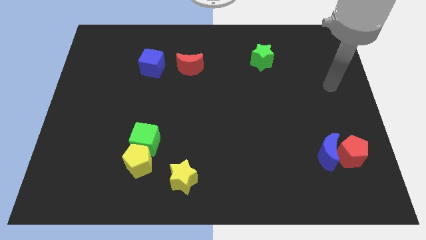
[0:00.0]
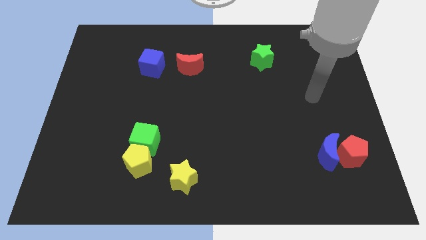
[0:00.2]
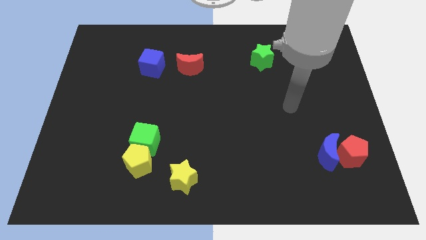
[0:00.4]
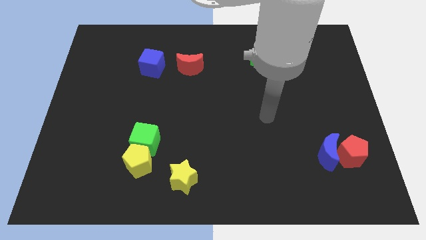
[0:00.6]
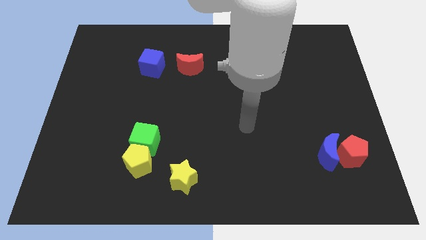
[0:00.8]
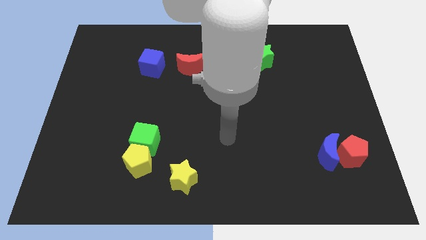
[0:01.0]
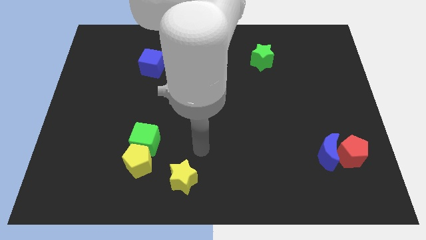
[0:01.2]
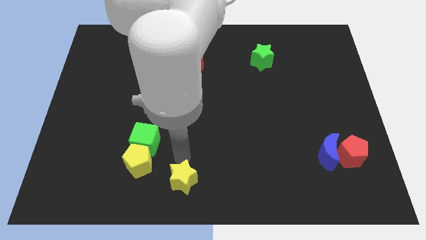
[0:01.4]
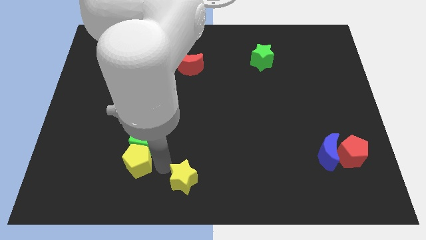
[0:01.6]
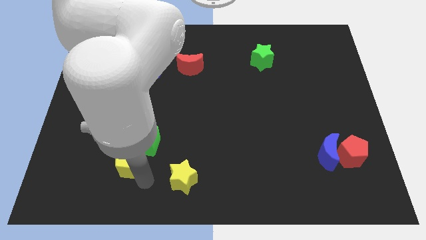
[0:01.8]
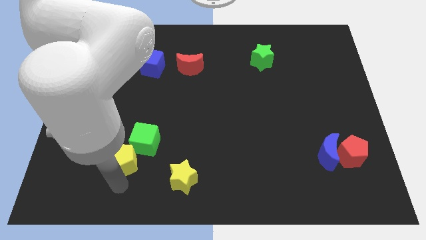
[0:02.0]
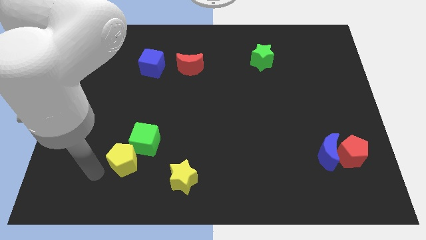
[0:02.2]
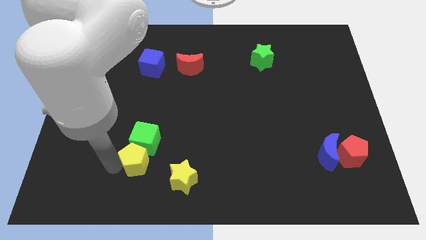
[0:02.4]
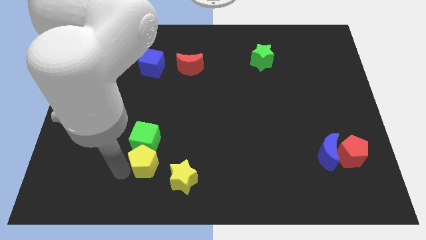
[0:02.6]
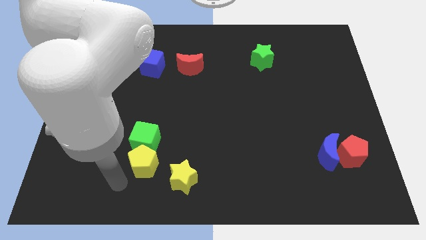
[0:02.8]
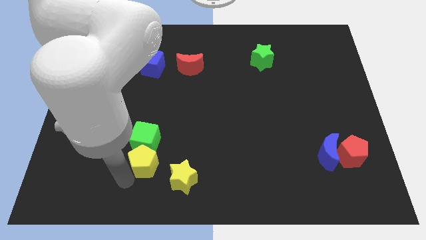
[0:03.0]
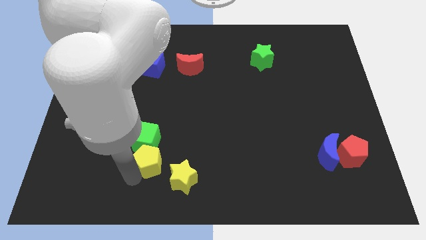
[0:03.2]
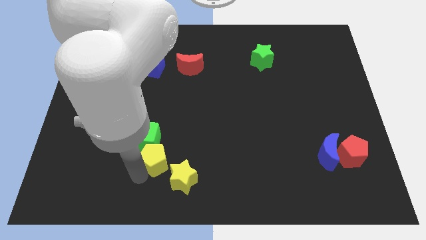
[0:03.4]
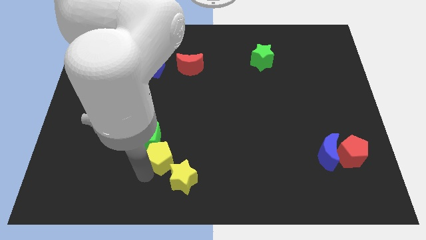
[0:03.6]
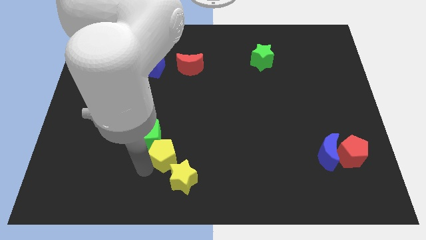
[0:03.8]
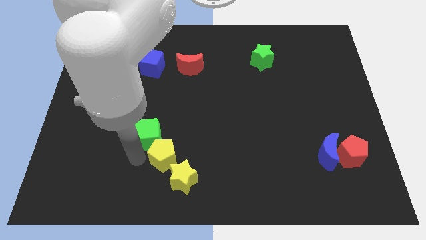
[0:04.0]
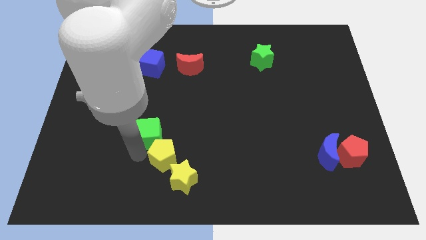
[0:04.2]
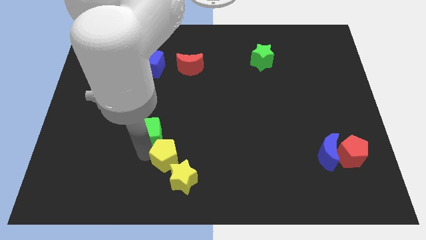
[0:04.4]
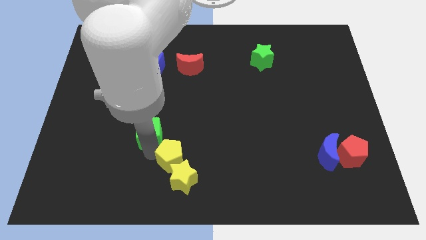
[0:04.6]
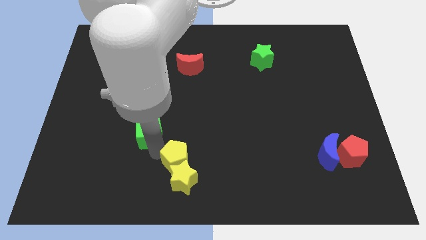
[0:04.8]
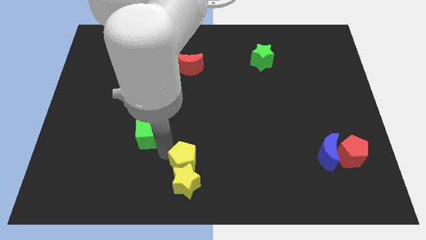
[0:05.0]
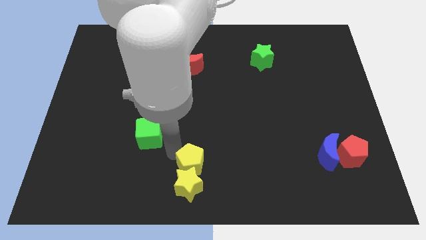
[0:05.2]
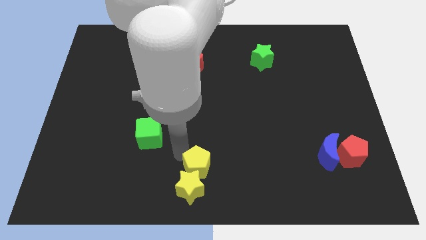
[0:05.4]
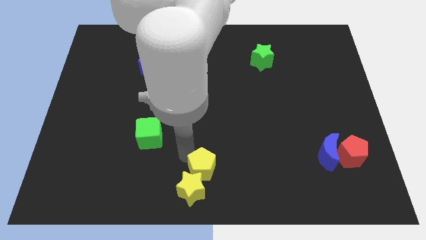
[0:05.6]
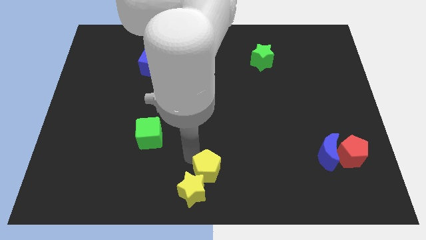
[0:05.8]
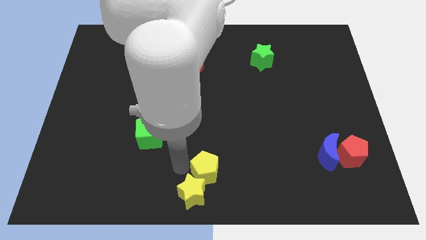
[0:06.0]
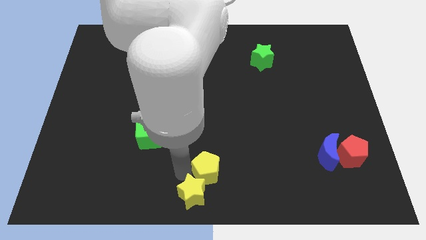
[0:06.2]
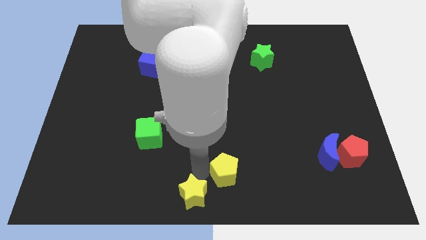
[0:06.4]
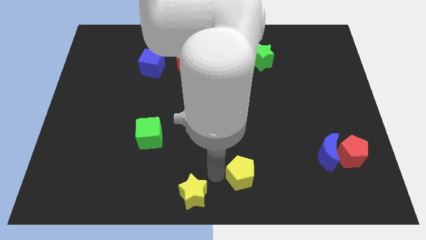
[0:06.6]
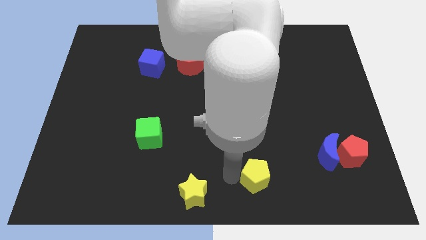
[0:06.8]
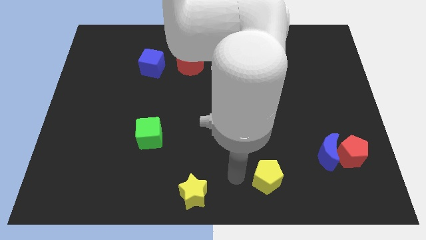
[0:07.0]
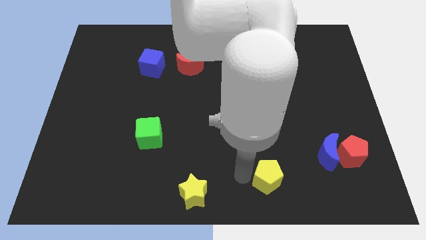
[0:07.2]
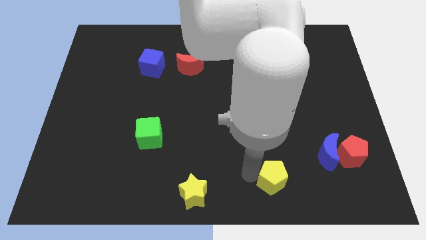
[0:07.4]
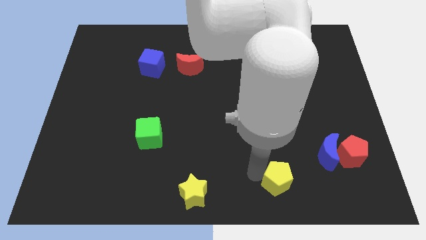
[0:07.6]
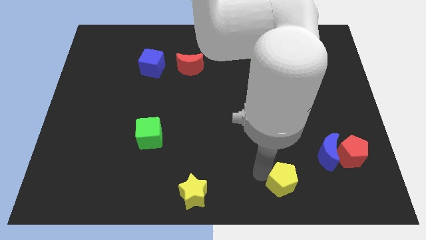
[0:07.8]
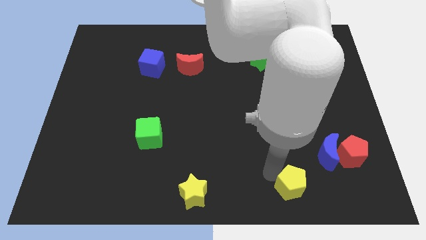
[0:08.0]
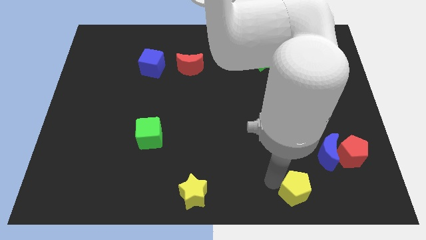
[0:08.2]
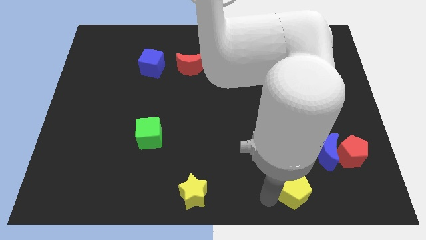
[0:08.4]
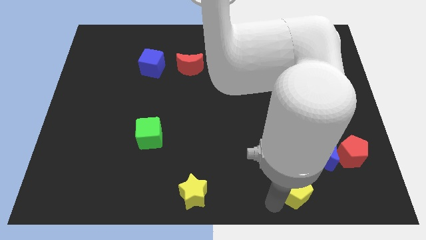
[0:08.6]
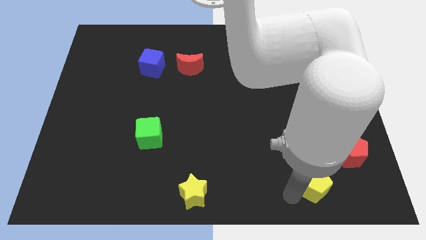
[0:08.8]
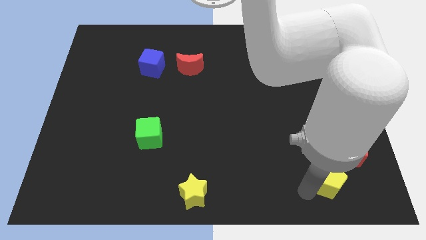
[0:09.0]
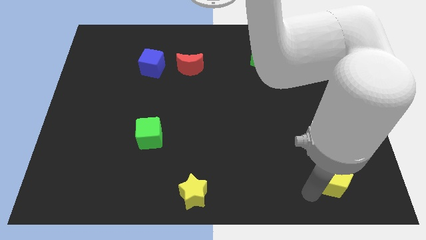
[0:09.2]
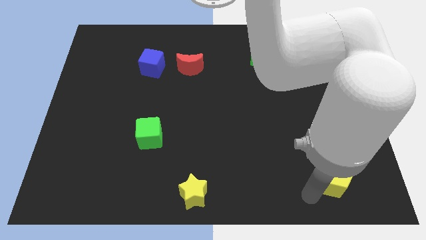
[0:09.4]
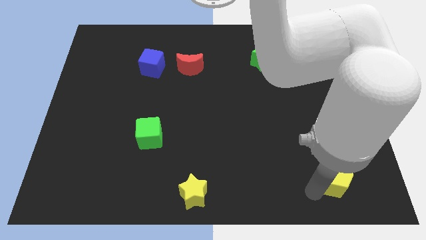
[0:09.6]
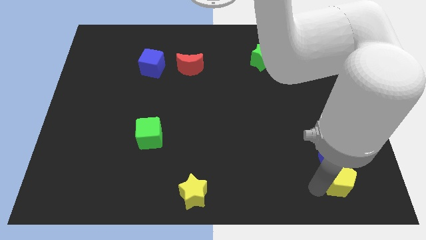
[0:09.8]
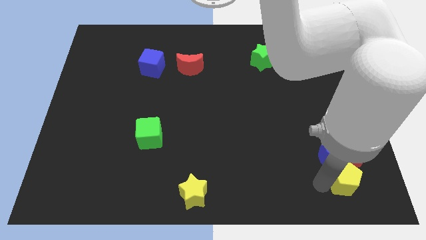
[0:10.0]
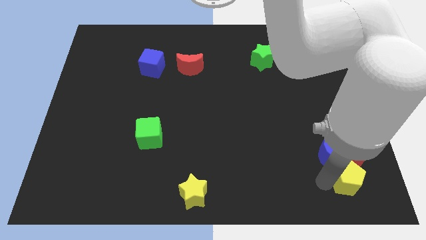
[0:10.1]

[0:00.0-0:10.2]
slide the yellow pentagon close to the red pentagon

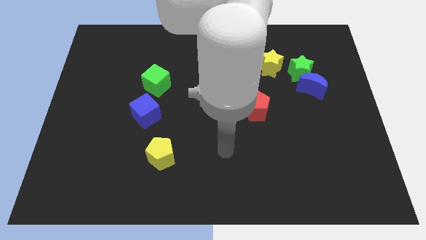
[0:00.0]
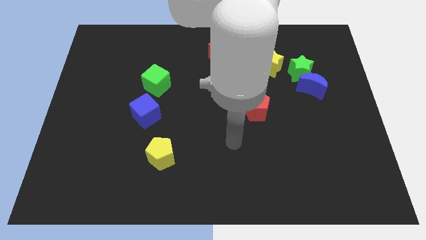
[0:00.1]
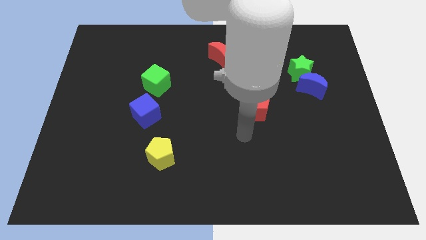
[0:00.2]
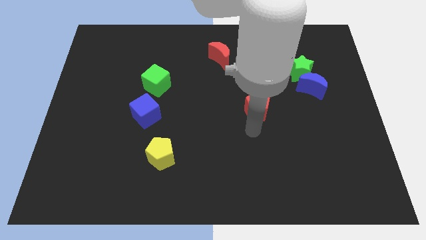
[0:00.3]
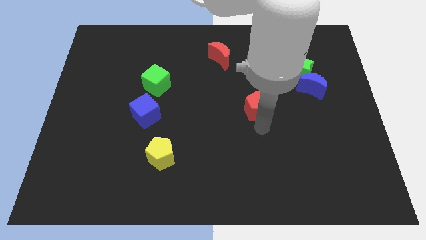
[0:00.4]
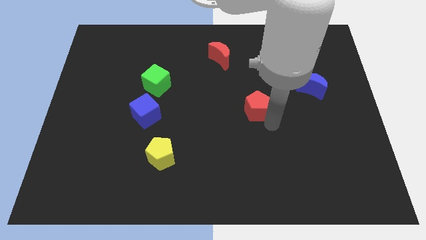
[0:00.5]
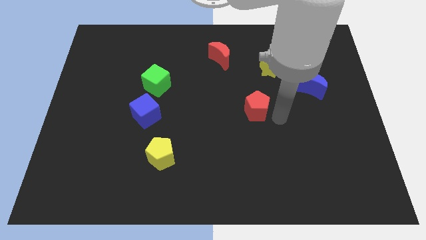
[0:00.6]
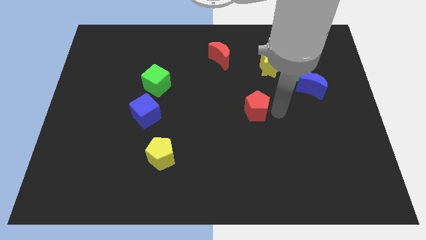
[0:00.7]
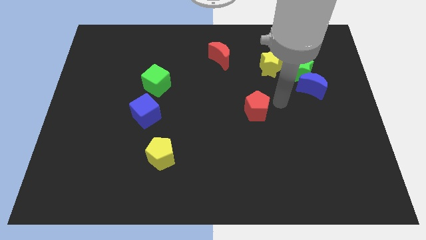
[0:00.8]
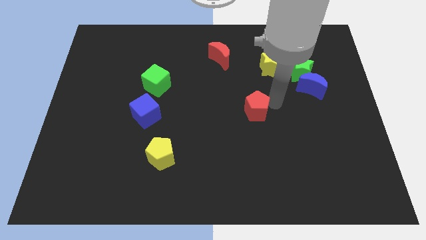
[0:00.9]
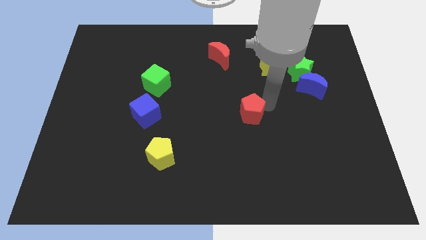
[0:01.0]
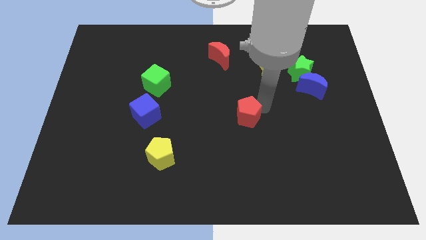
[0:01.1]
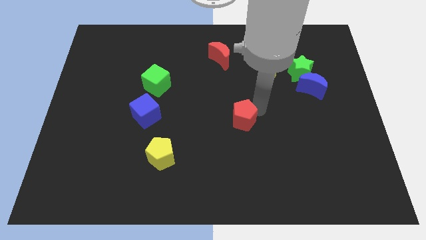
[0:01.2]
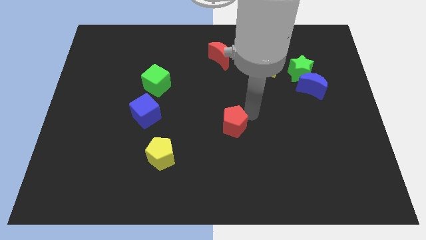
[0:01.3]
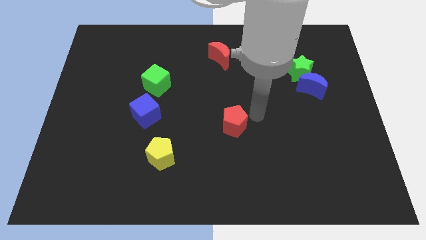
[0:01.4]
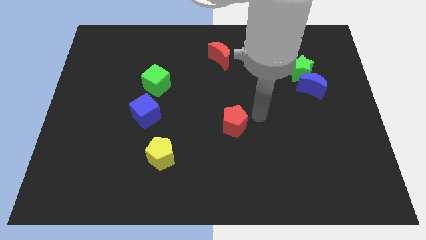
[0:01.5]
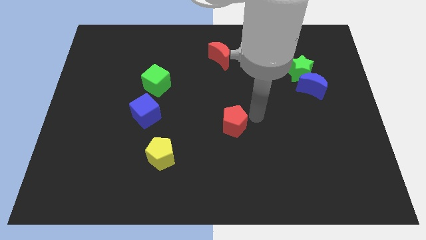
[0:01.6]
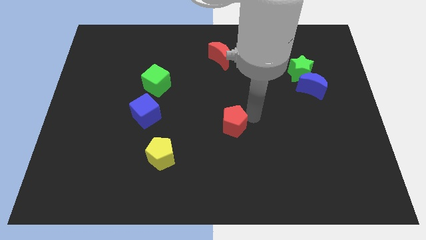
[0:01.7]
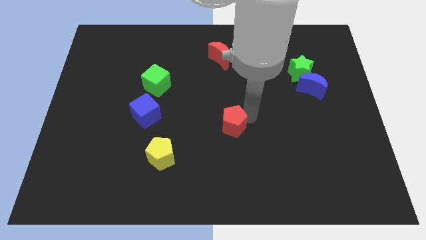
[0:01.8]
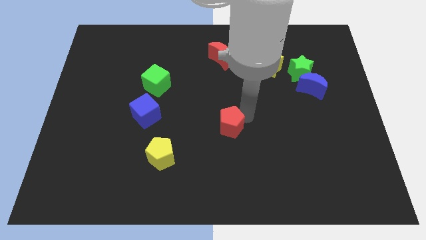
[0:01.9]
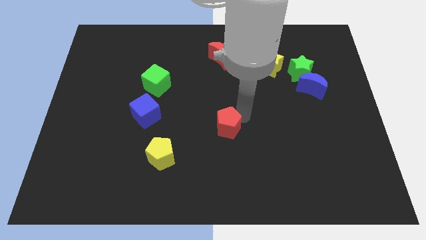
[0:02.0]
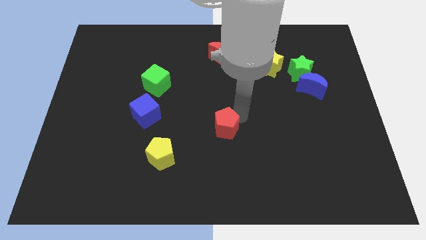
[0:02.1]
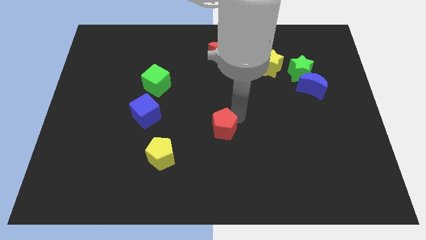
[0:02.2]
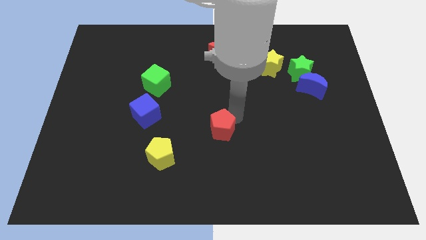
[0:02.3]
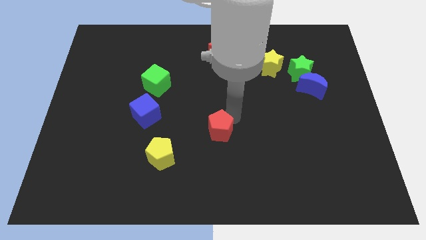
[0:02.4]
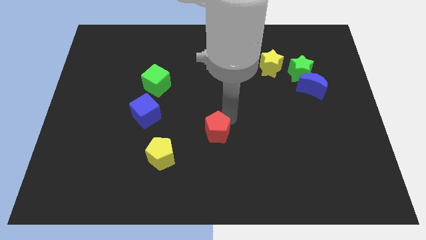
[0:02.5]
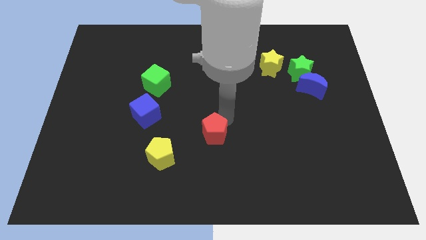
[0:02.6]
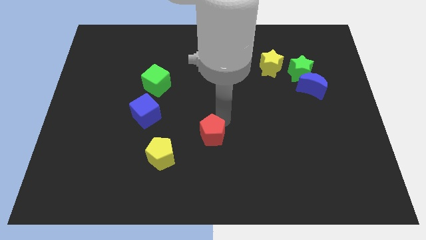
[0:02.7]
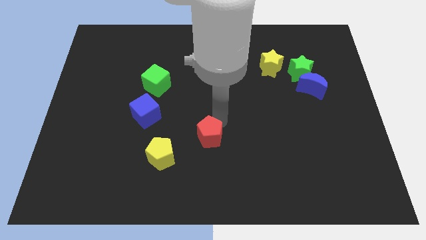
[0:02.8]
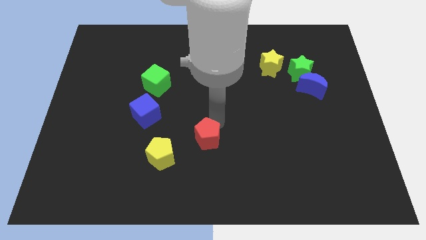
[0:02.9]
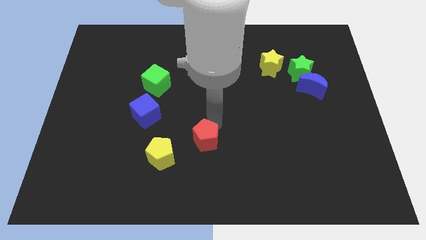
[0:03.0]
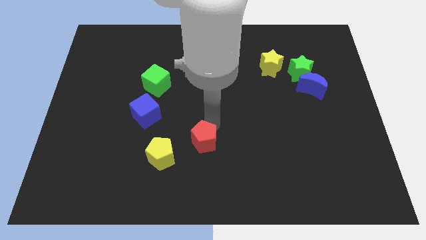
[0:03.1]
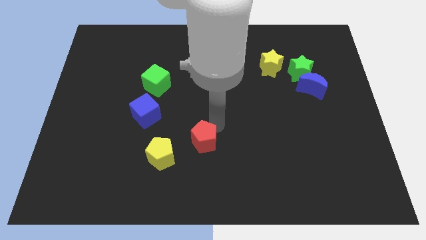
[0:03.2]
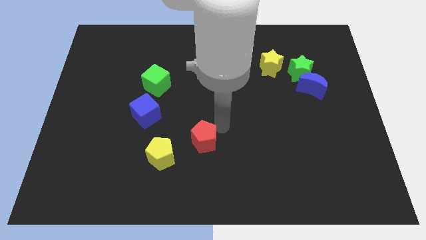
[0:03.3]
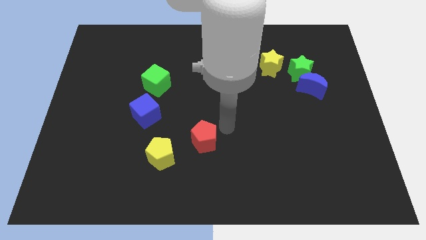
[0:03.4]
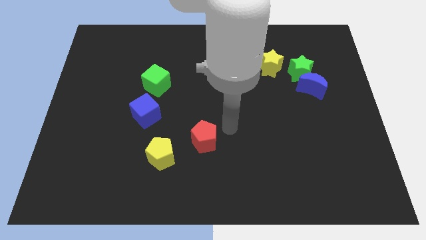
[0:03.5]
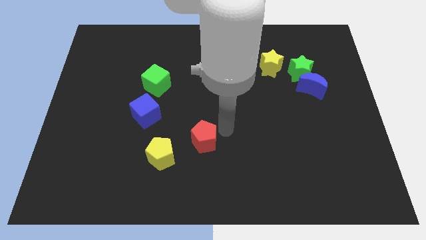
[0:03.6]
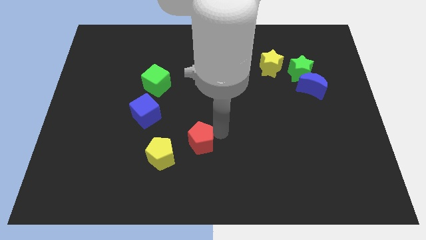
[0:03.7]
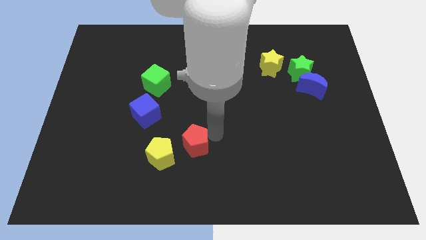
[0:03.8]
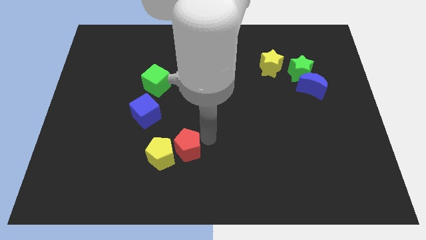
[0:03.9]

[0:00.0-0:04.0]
push the red pentagon next to the yellow pentagon
